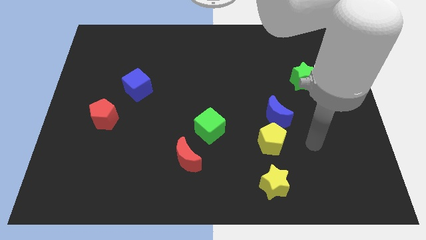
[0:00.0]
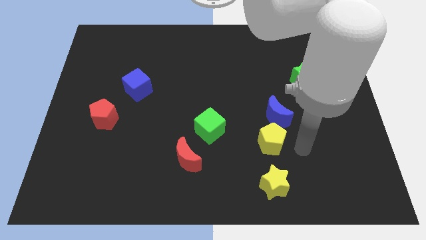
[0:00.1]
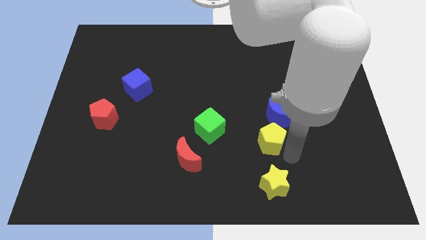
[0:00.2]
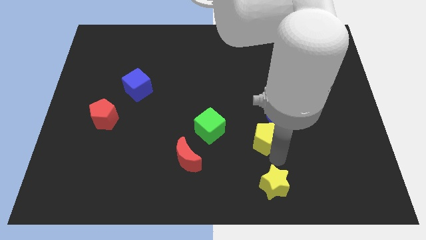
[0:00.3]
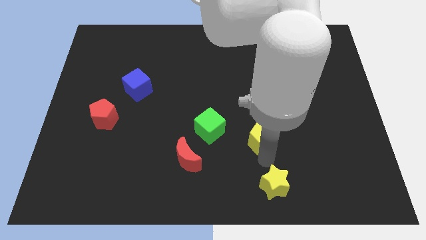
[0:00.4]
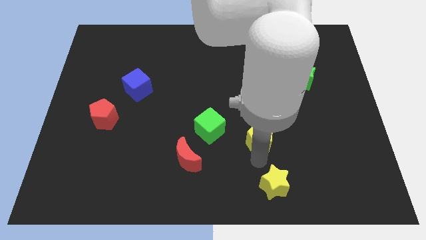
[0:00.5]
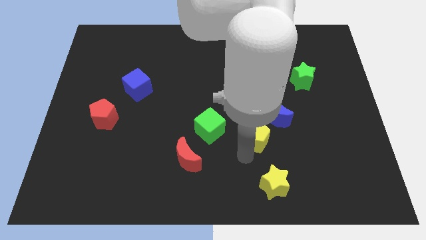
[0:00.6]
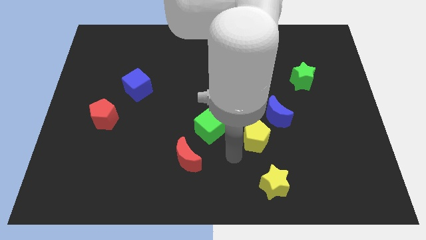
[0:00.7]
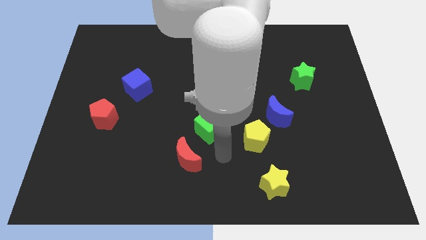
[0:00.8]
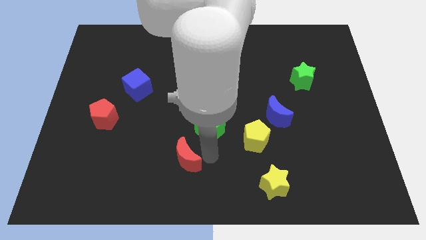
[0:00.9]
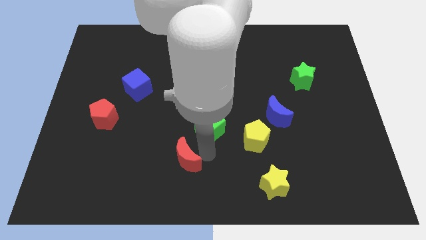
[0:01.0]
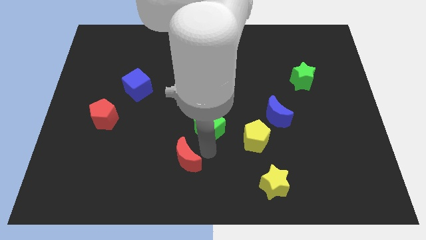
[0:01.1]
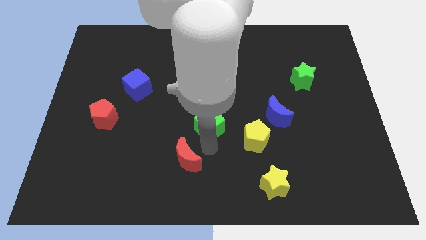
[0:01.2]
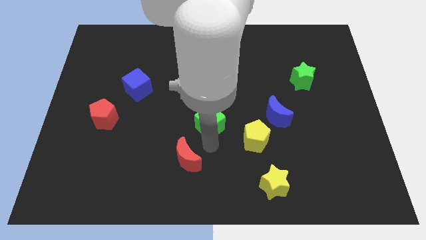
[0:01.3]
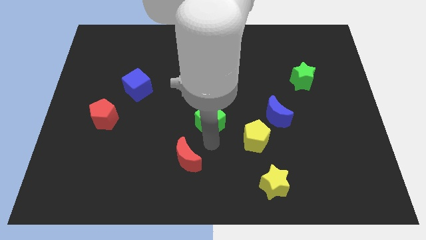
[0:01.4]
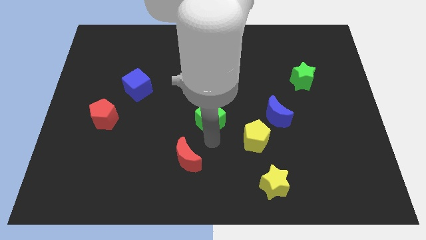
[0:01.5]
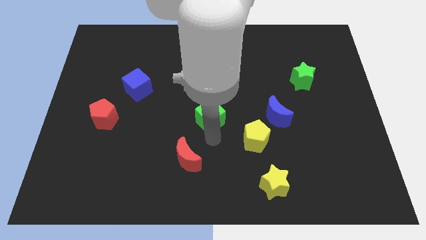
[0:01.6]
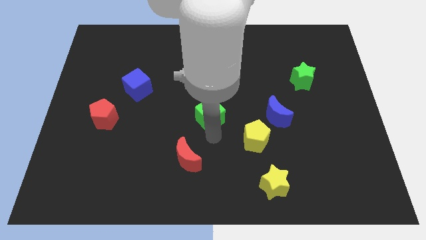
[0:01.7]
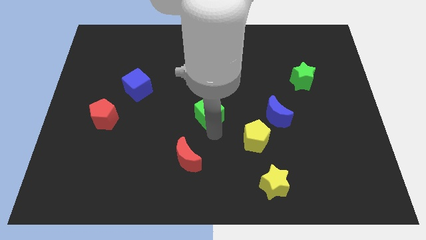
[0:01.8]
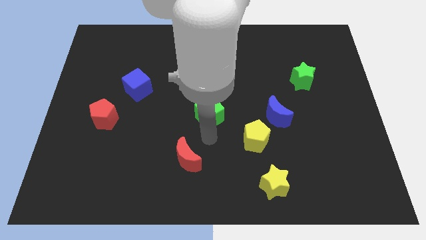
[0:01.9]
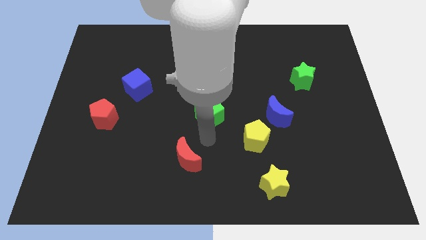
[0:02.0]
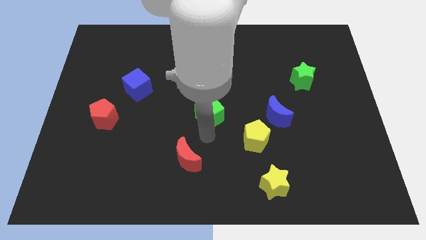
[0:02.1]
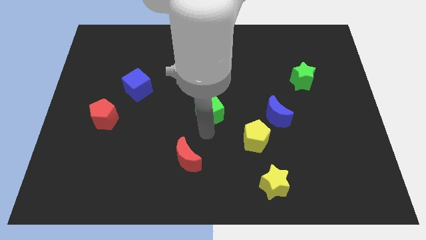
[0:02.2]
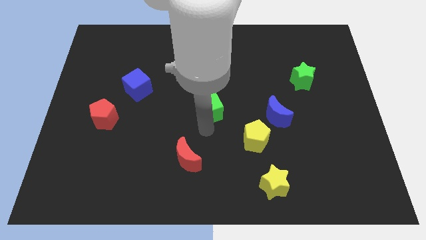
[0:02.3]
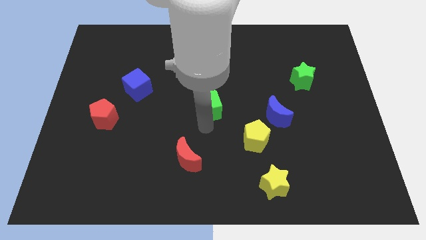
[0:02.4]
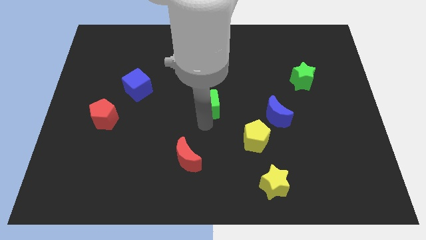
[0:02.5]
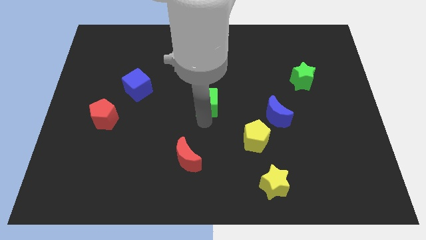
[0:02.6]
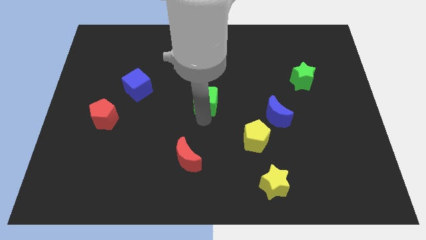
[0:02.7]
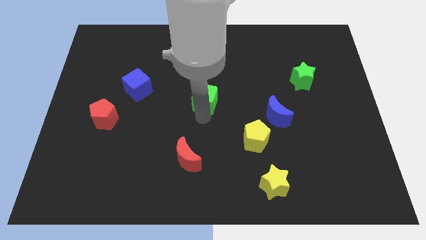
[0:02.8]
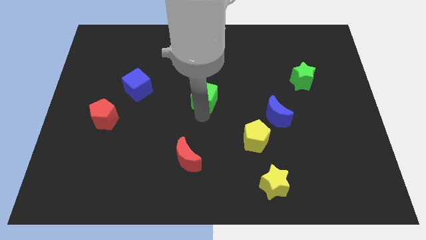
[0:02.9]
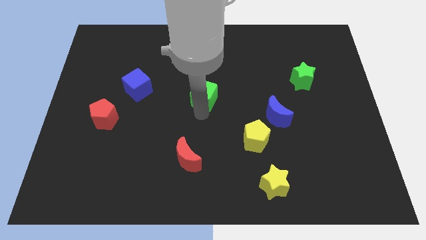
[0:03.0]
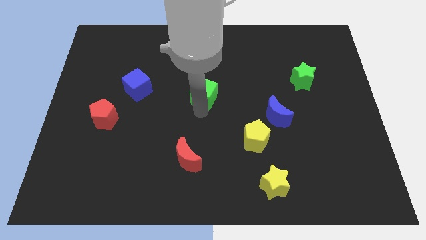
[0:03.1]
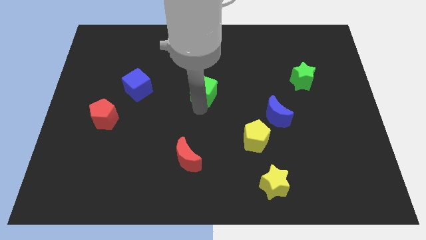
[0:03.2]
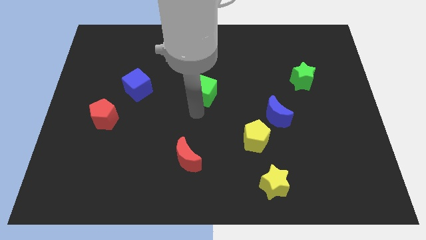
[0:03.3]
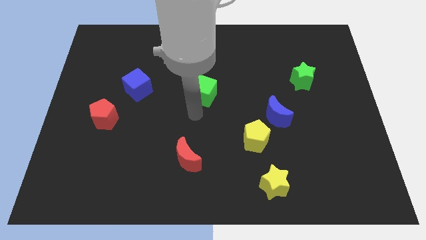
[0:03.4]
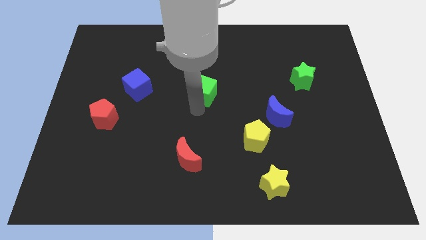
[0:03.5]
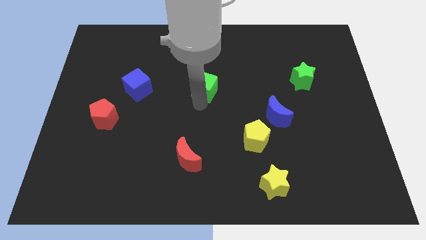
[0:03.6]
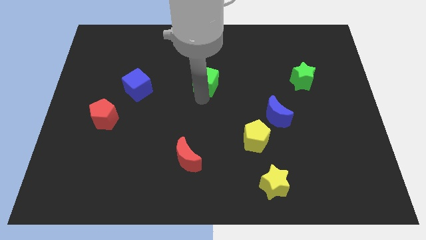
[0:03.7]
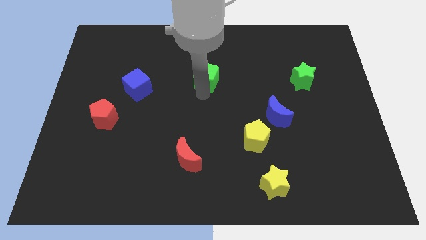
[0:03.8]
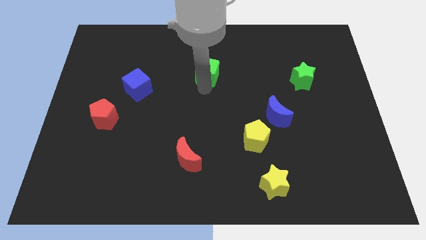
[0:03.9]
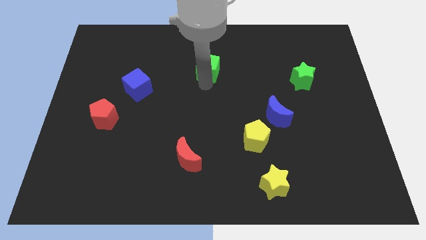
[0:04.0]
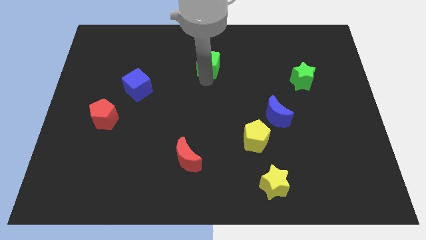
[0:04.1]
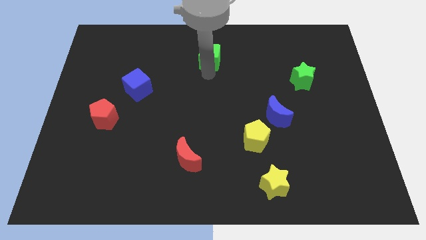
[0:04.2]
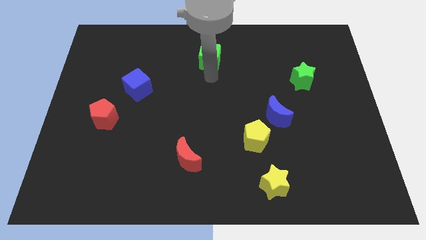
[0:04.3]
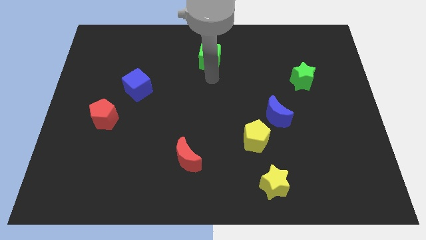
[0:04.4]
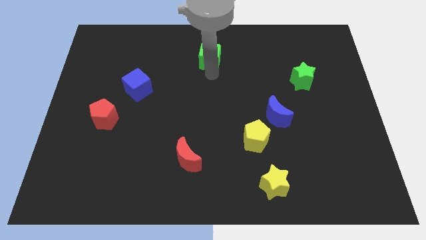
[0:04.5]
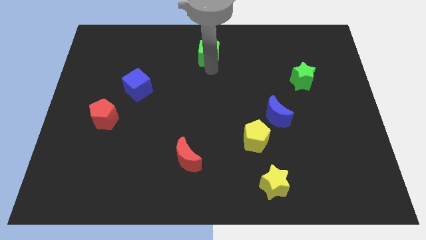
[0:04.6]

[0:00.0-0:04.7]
push the green cube to the towards your base

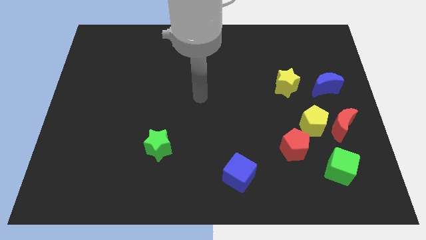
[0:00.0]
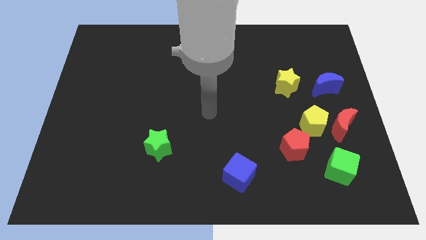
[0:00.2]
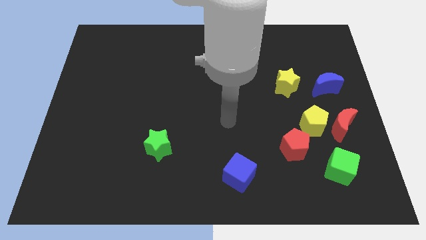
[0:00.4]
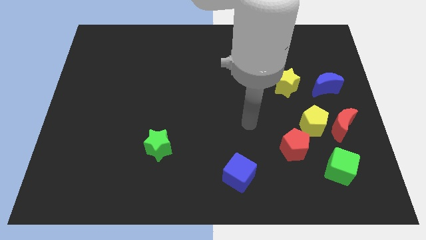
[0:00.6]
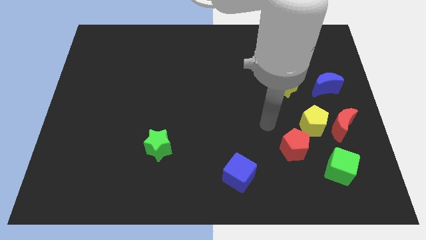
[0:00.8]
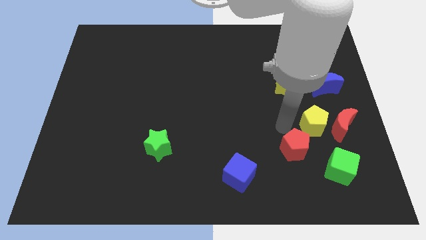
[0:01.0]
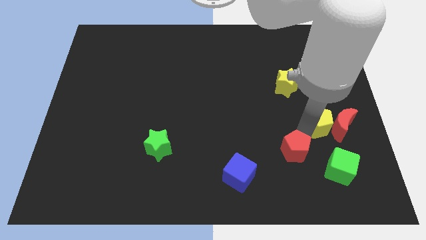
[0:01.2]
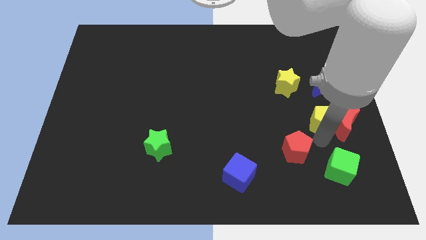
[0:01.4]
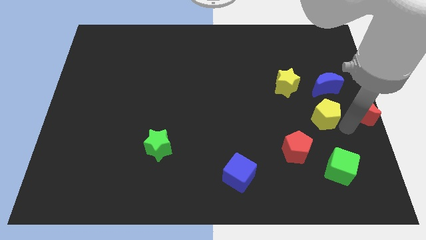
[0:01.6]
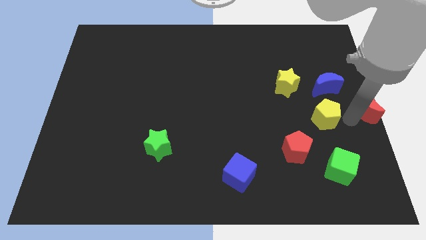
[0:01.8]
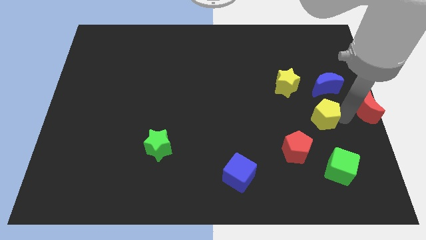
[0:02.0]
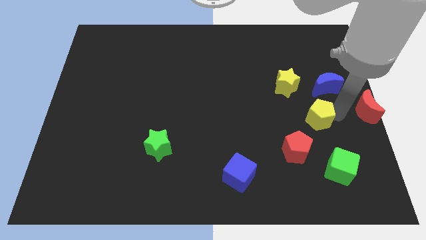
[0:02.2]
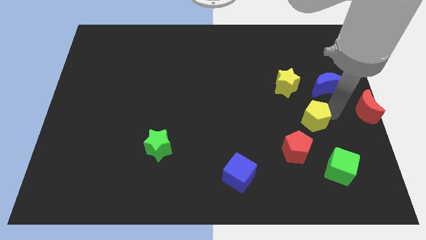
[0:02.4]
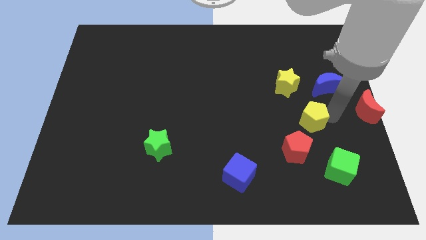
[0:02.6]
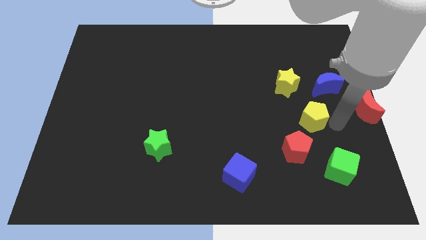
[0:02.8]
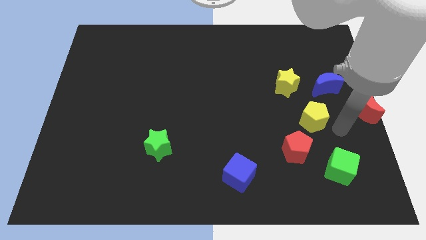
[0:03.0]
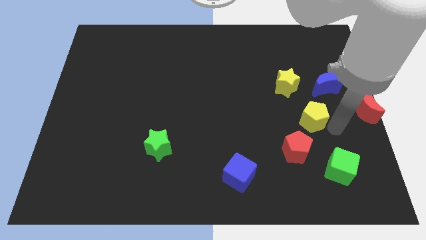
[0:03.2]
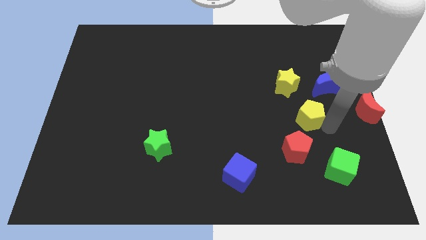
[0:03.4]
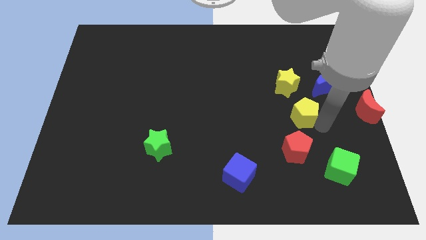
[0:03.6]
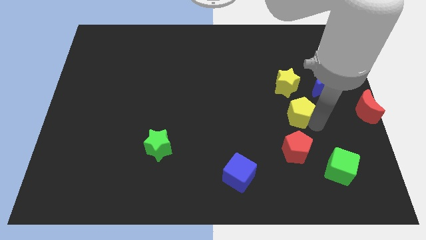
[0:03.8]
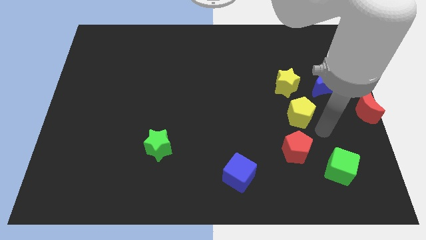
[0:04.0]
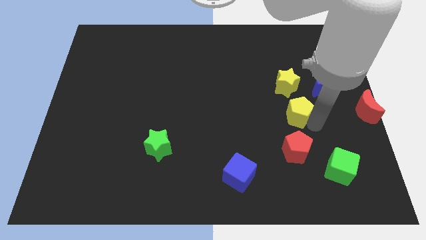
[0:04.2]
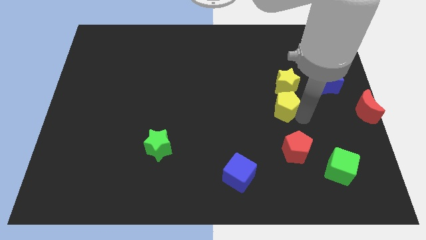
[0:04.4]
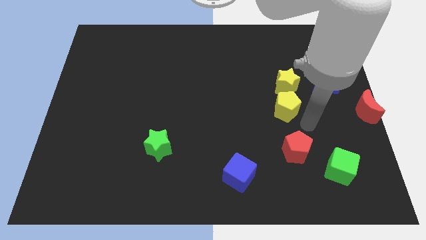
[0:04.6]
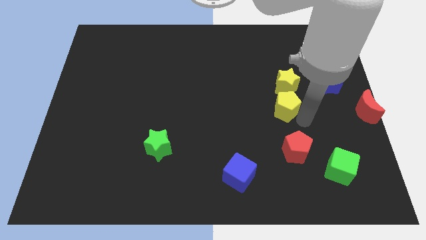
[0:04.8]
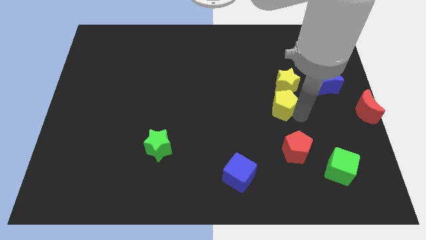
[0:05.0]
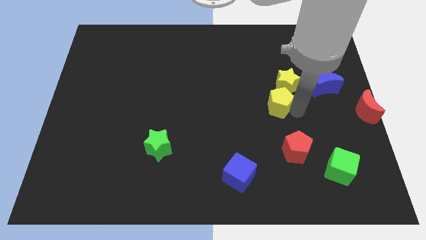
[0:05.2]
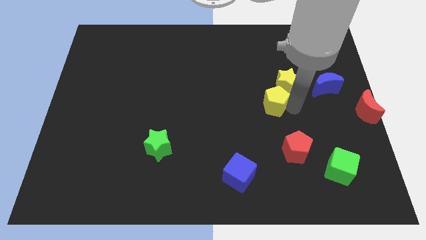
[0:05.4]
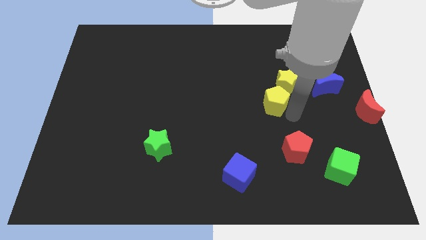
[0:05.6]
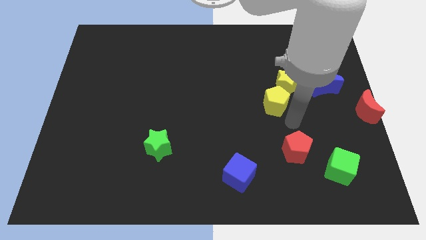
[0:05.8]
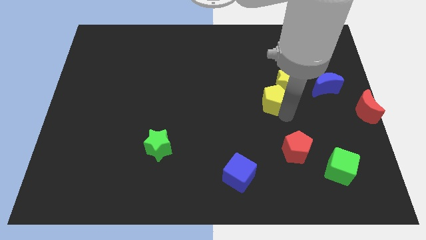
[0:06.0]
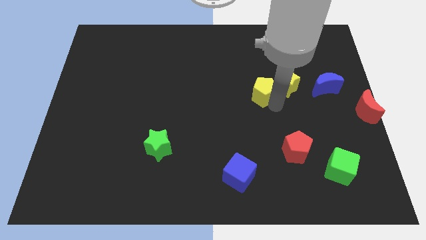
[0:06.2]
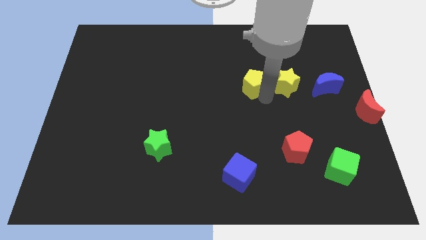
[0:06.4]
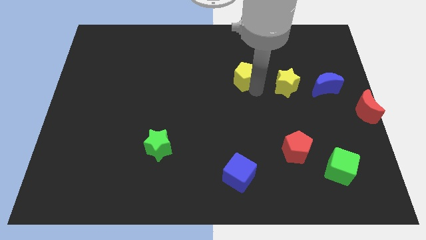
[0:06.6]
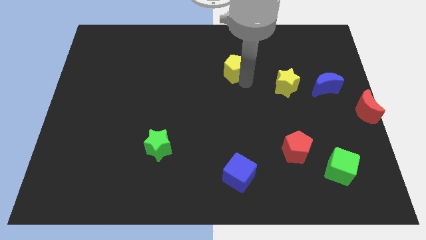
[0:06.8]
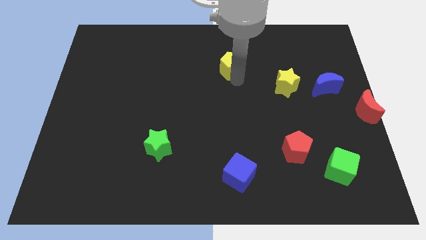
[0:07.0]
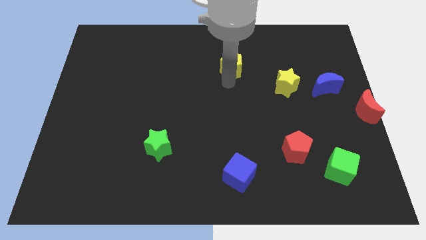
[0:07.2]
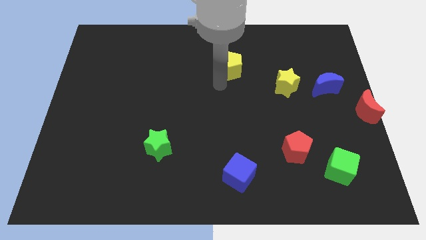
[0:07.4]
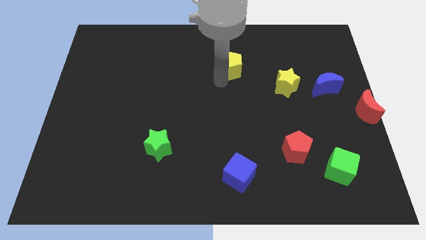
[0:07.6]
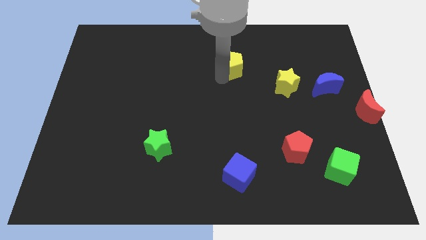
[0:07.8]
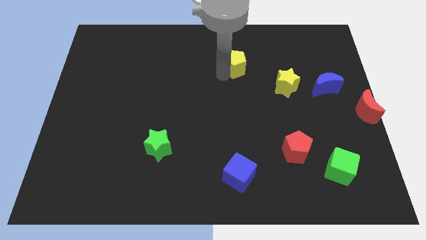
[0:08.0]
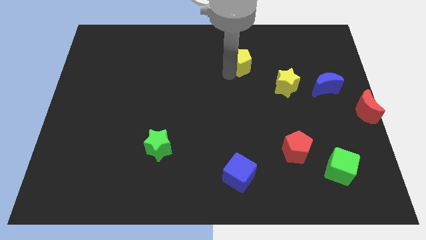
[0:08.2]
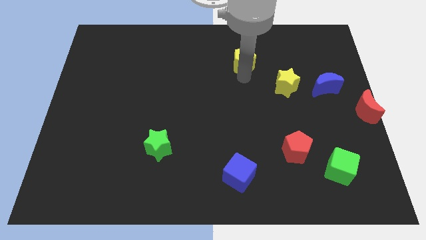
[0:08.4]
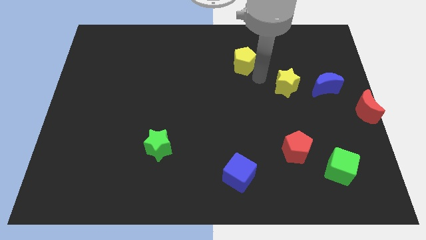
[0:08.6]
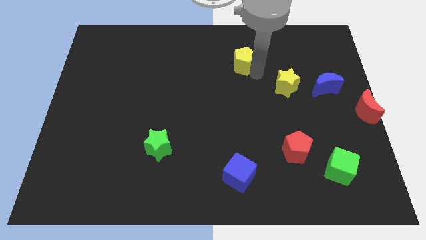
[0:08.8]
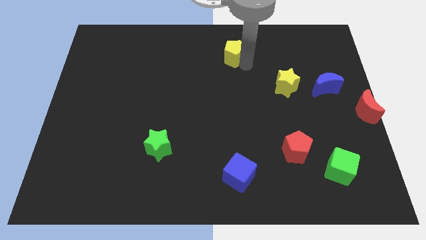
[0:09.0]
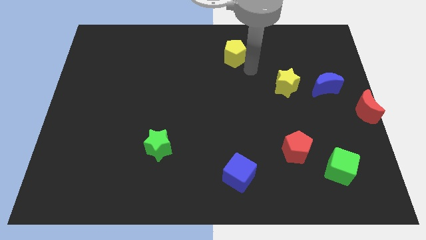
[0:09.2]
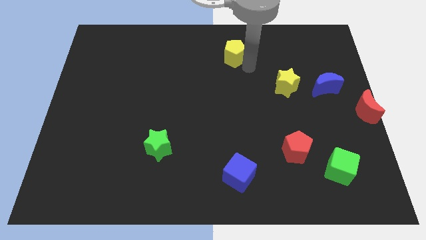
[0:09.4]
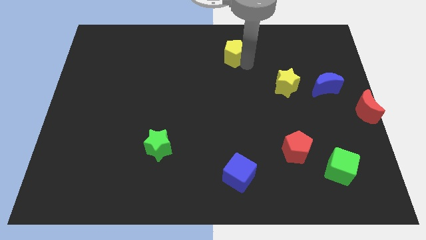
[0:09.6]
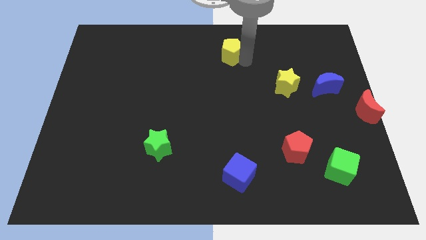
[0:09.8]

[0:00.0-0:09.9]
slide the yellow pentagon to the top
